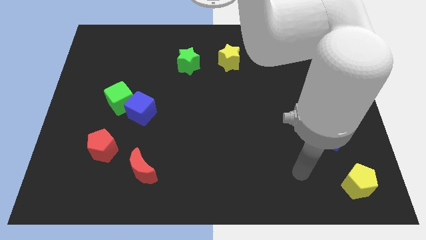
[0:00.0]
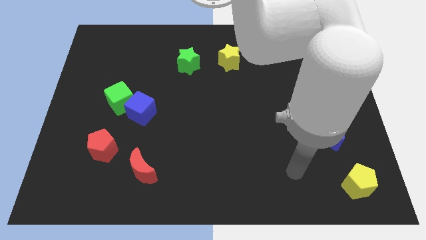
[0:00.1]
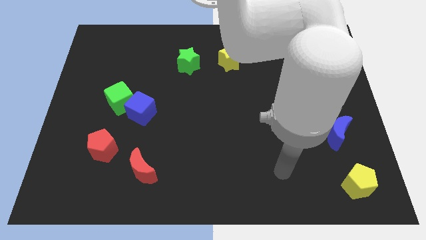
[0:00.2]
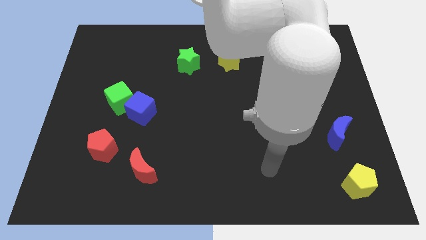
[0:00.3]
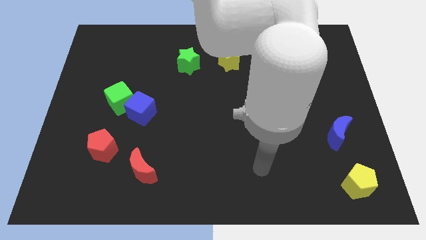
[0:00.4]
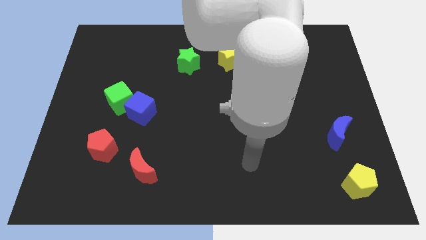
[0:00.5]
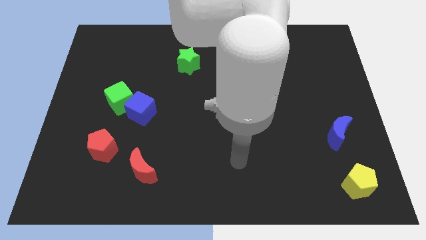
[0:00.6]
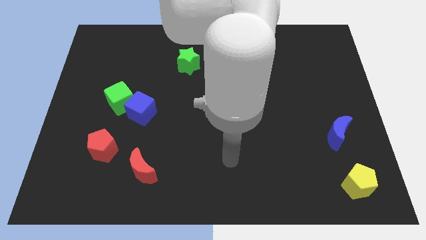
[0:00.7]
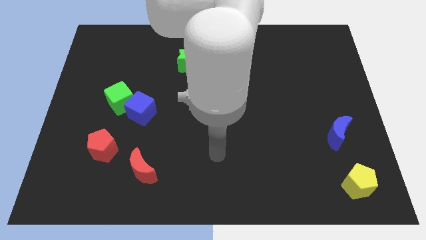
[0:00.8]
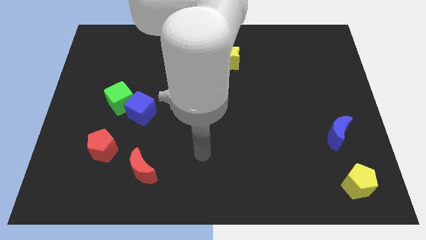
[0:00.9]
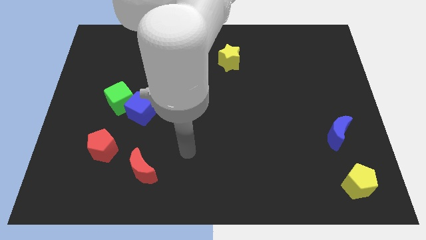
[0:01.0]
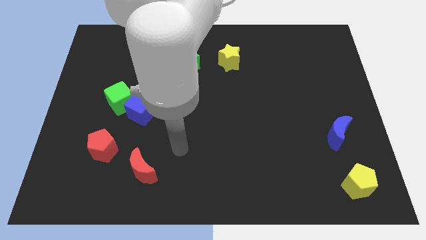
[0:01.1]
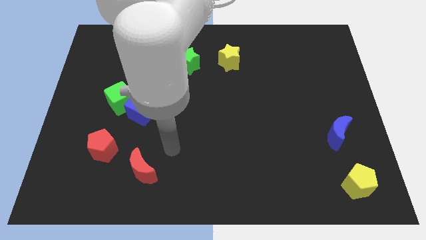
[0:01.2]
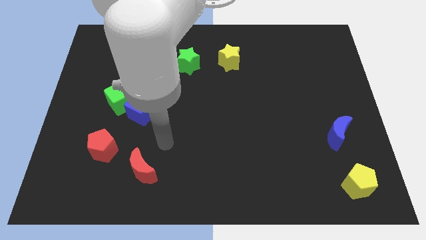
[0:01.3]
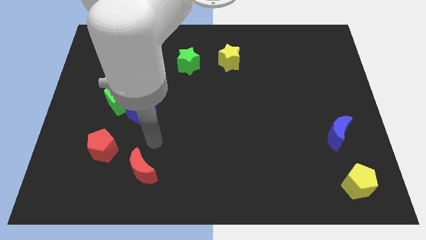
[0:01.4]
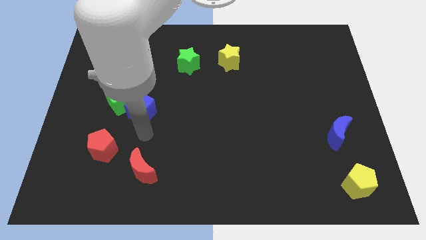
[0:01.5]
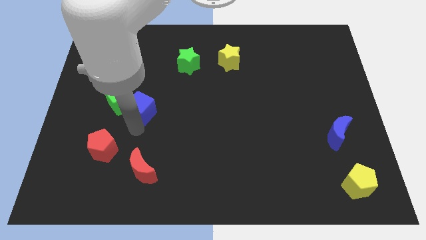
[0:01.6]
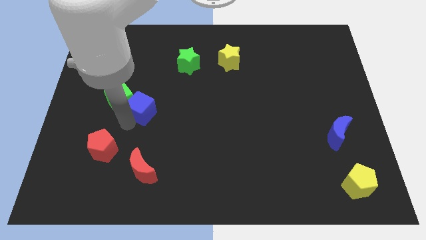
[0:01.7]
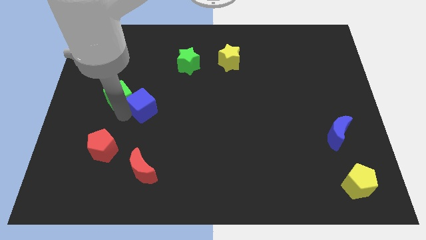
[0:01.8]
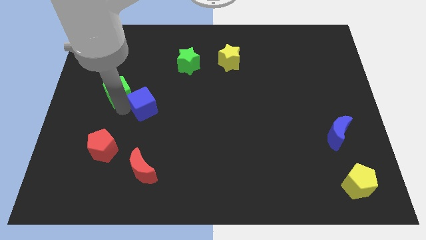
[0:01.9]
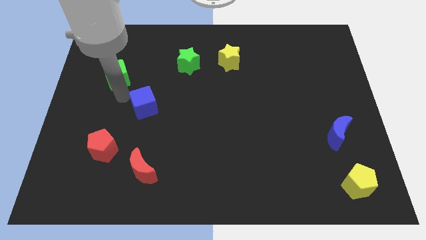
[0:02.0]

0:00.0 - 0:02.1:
pull the blue cube apart from the green cube

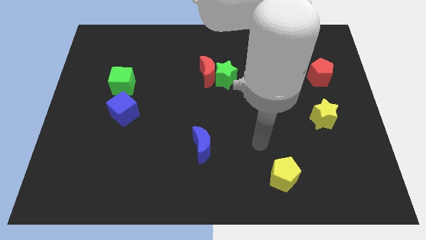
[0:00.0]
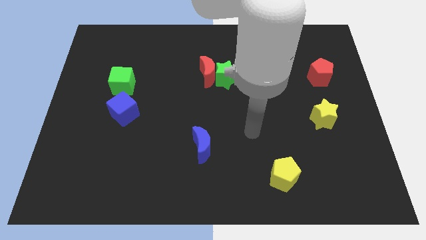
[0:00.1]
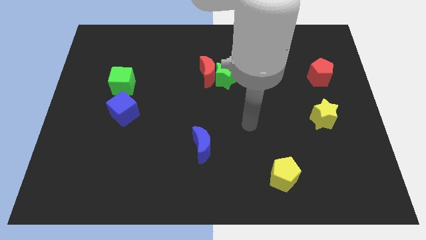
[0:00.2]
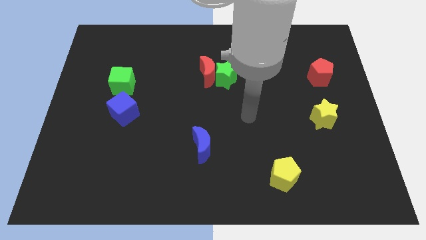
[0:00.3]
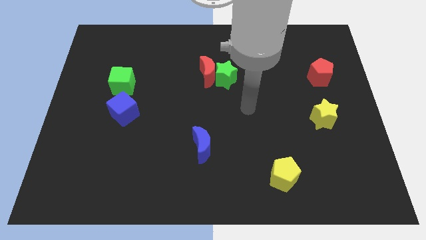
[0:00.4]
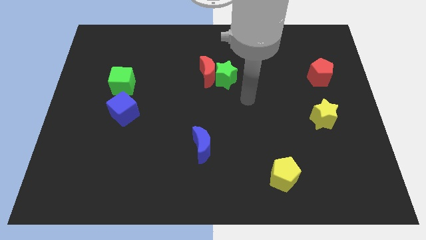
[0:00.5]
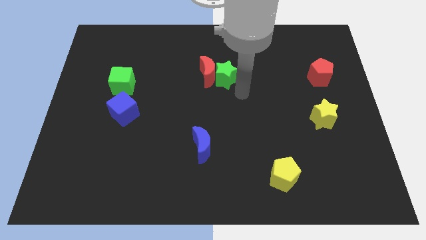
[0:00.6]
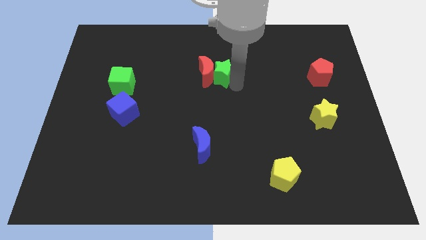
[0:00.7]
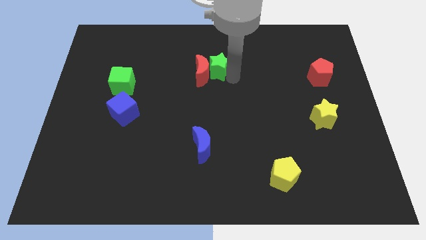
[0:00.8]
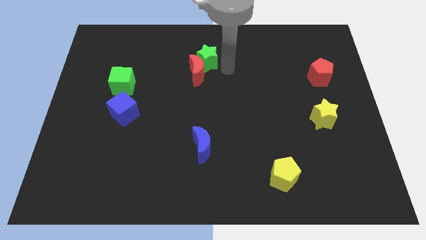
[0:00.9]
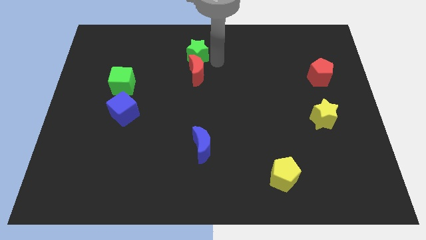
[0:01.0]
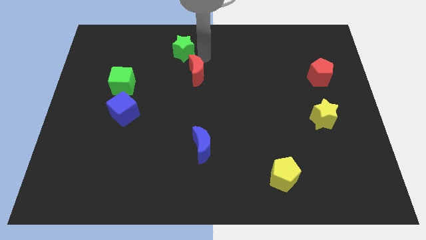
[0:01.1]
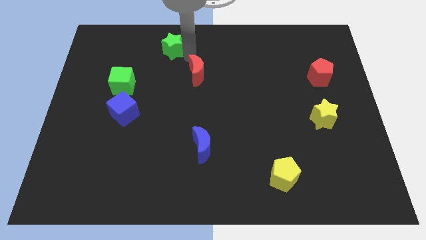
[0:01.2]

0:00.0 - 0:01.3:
pull the red moon apart from the green star

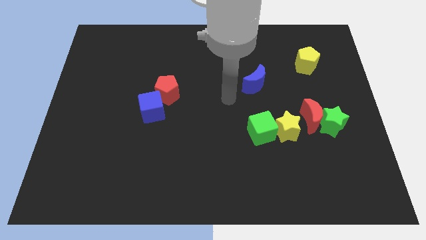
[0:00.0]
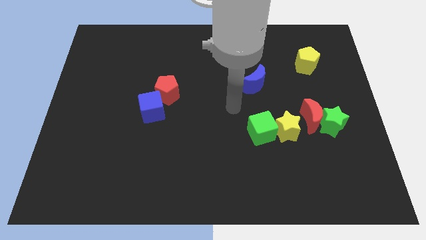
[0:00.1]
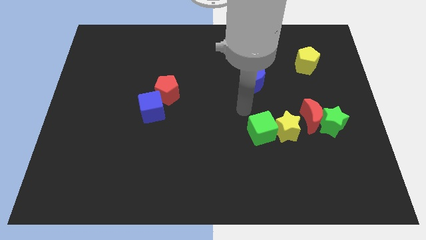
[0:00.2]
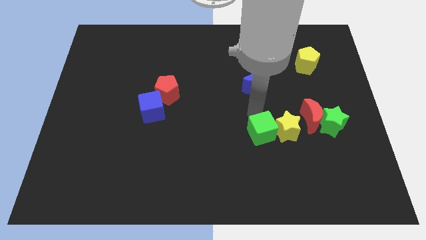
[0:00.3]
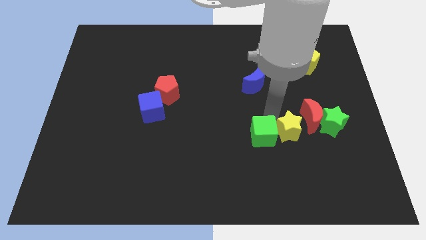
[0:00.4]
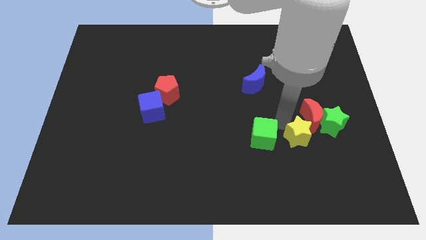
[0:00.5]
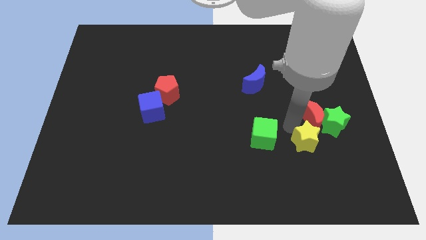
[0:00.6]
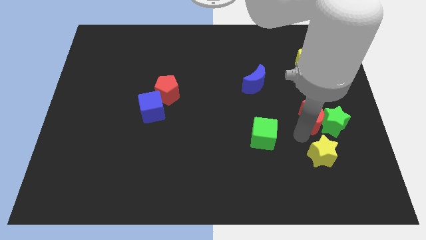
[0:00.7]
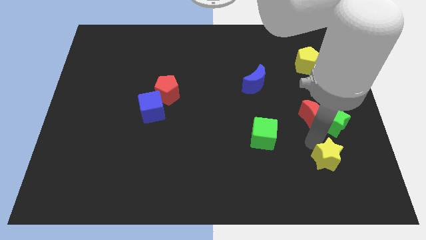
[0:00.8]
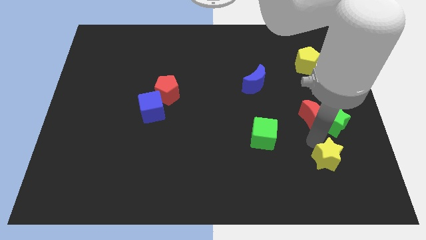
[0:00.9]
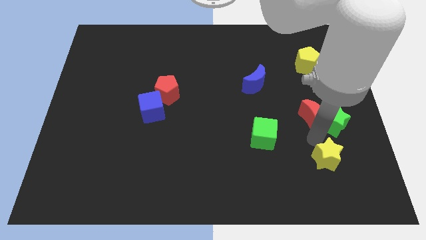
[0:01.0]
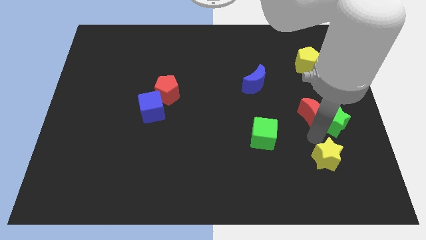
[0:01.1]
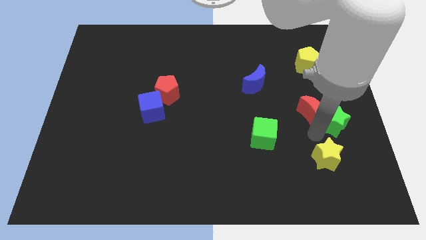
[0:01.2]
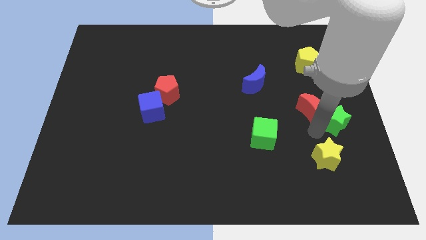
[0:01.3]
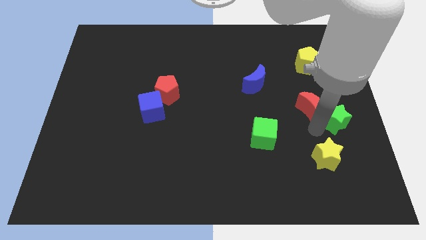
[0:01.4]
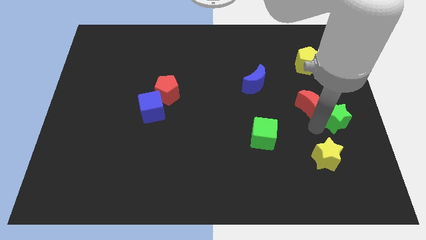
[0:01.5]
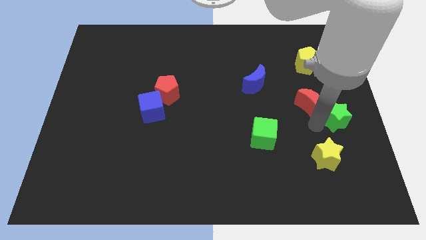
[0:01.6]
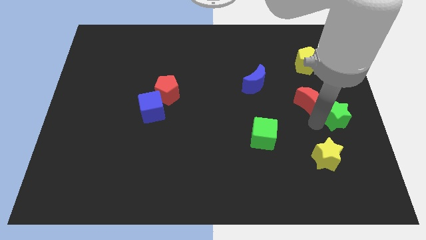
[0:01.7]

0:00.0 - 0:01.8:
move the red moon away from the green star and yellow star

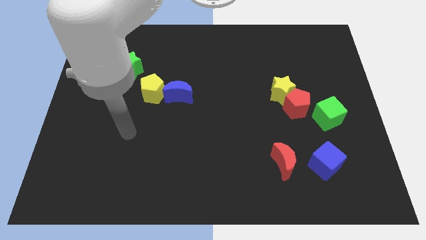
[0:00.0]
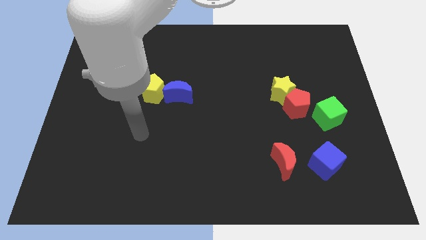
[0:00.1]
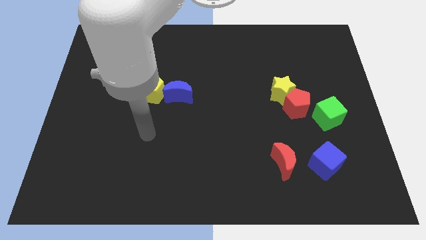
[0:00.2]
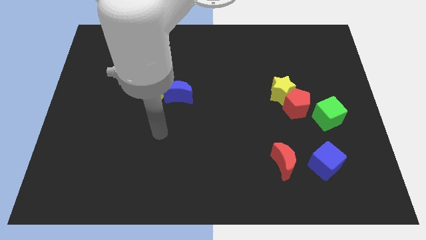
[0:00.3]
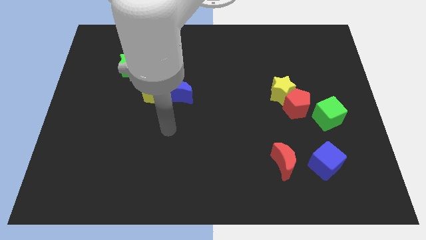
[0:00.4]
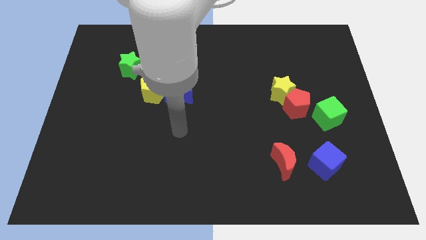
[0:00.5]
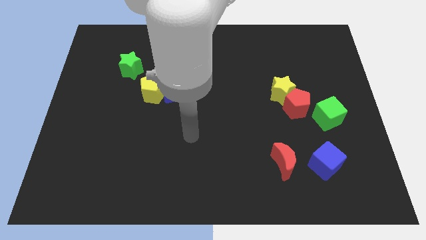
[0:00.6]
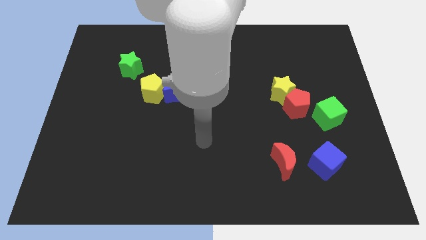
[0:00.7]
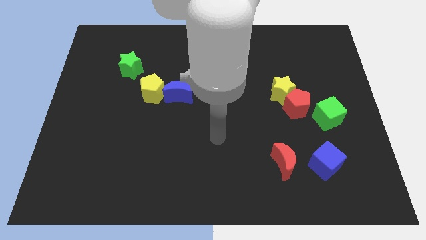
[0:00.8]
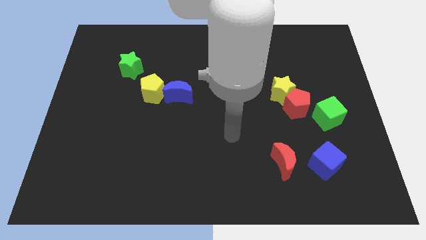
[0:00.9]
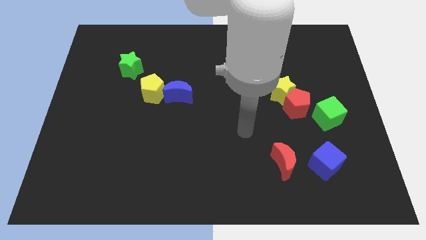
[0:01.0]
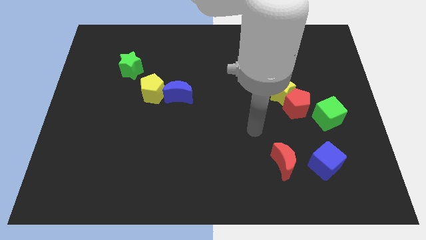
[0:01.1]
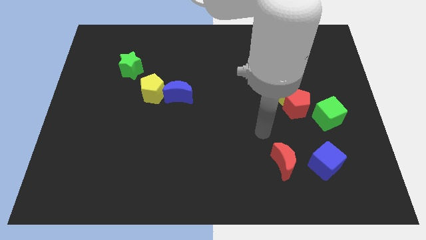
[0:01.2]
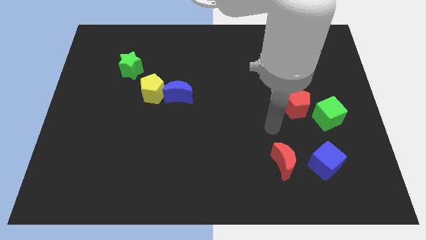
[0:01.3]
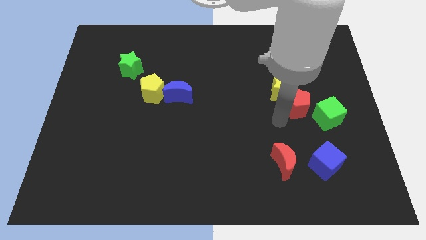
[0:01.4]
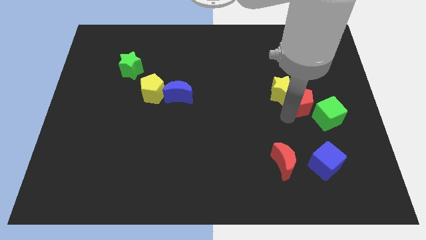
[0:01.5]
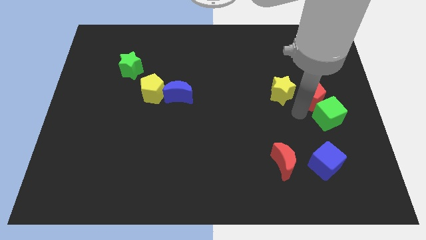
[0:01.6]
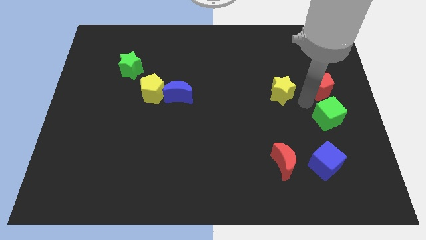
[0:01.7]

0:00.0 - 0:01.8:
separate the yellow star from the red pentagon

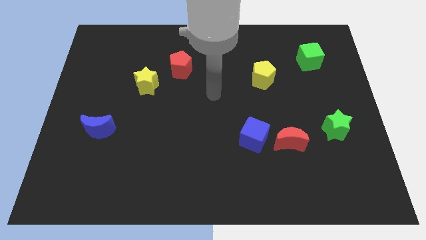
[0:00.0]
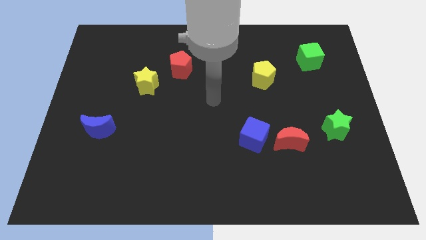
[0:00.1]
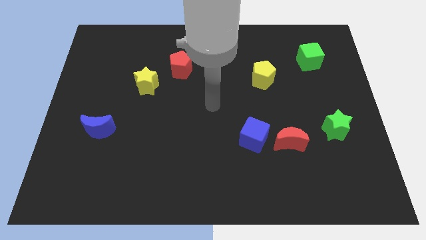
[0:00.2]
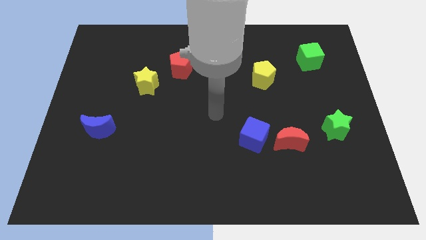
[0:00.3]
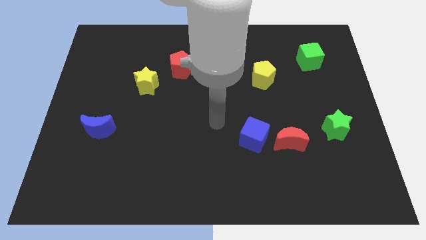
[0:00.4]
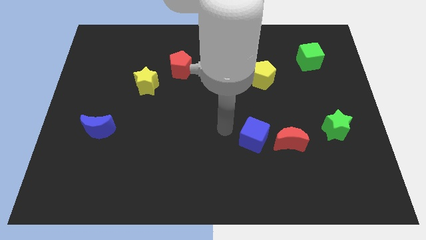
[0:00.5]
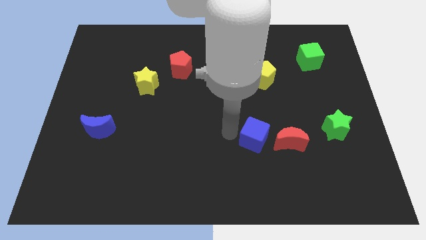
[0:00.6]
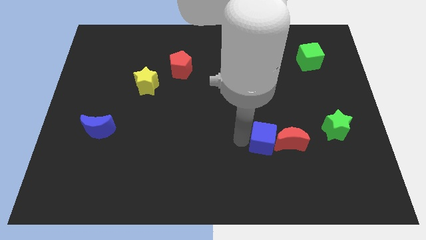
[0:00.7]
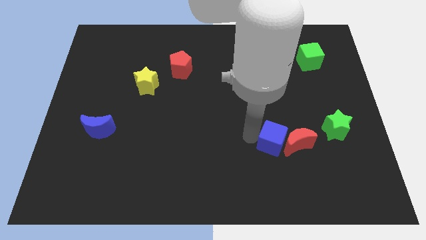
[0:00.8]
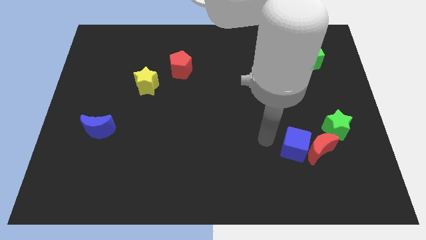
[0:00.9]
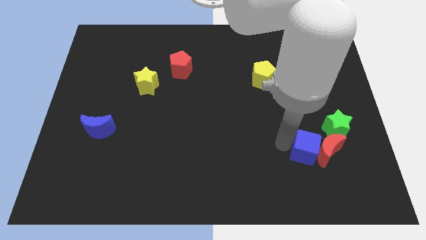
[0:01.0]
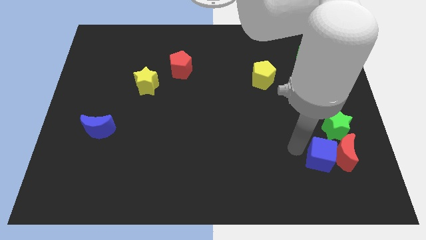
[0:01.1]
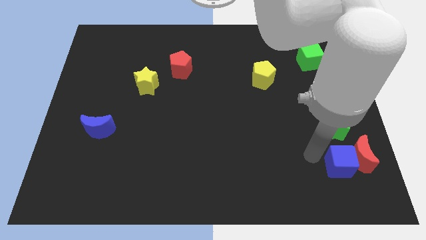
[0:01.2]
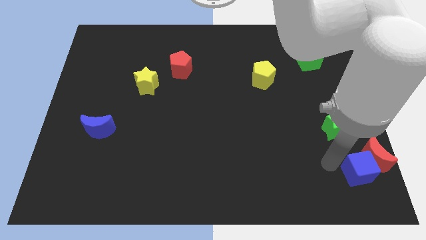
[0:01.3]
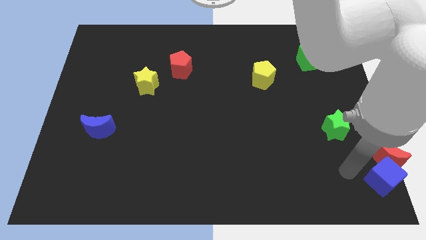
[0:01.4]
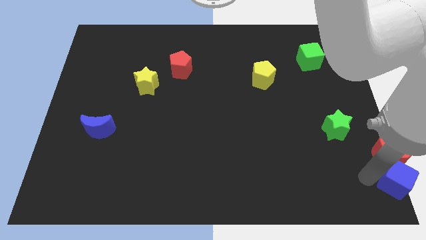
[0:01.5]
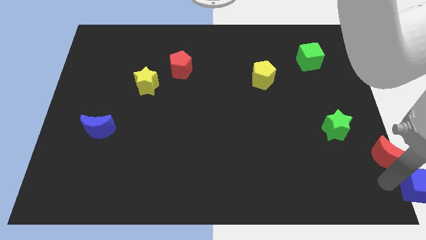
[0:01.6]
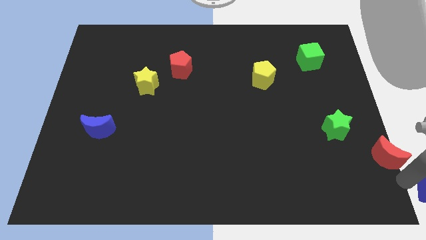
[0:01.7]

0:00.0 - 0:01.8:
separate the red moon from the blue cube

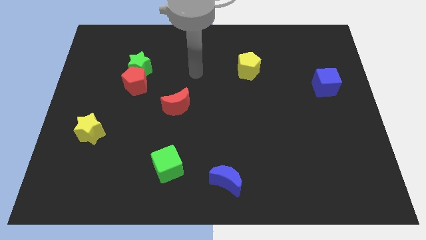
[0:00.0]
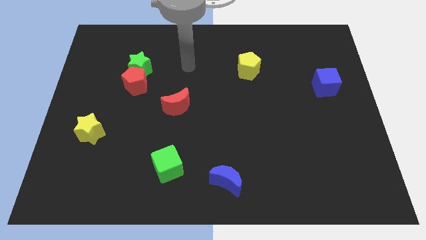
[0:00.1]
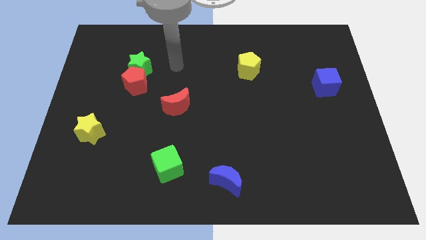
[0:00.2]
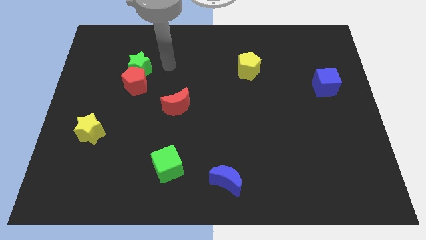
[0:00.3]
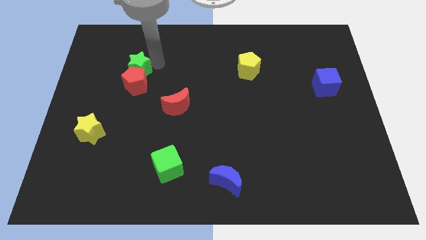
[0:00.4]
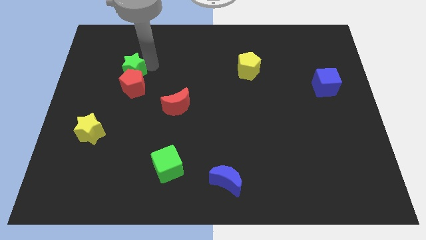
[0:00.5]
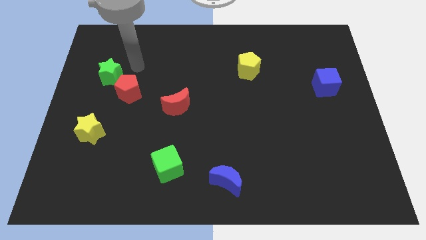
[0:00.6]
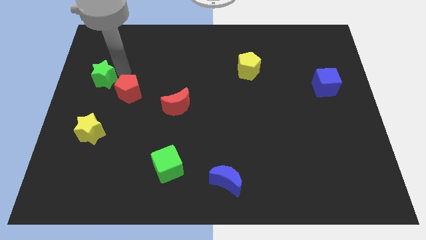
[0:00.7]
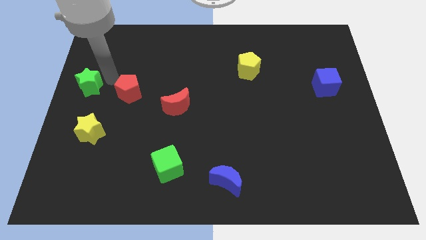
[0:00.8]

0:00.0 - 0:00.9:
pull the red pentagon apart from the green star
